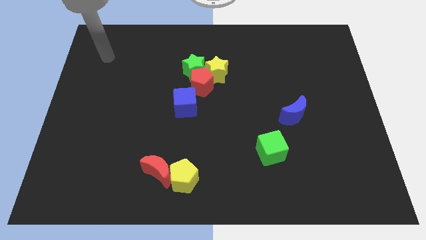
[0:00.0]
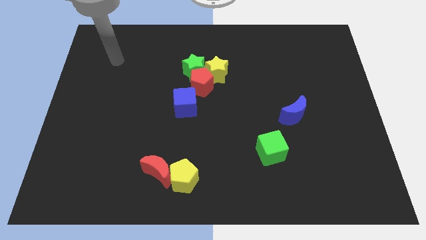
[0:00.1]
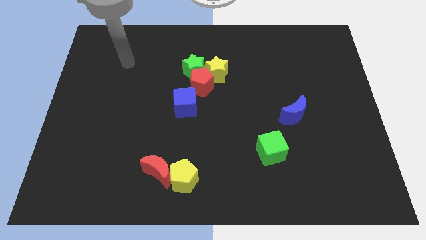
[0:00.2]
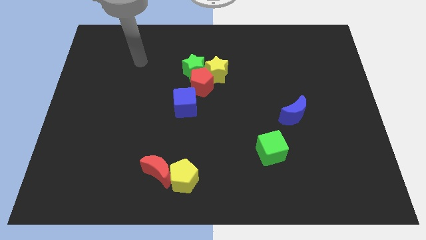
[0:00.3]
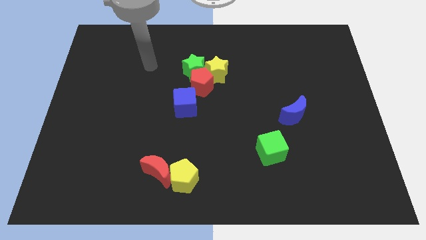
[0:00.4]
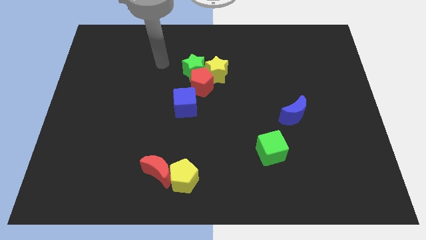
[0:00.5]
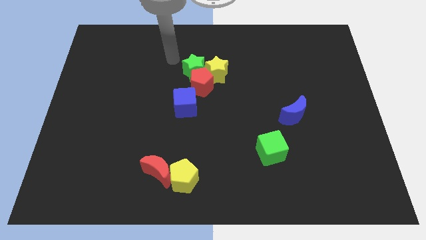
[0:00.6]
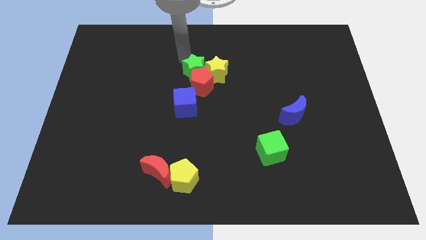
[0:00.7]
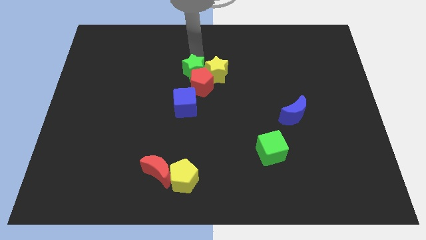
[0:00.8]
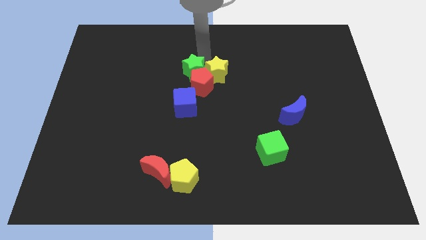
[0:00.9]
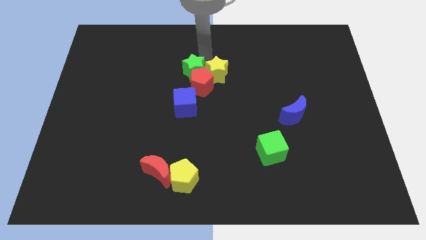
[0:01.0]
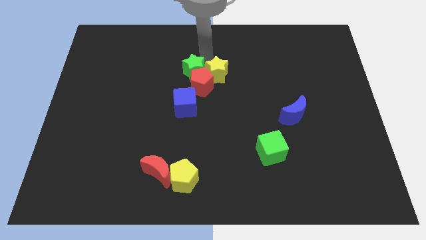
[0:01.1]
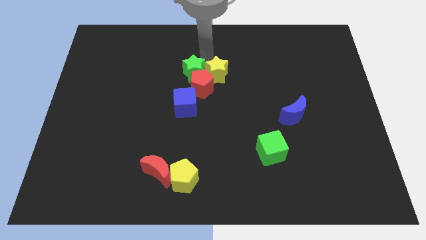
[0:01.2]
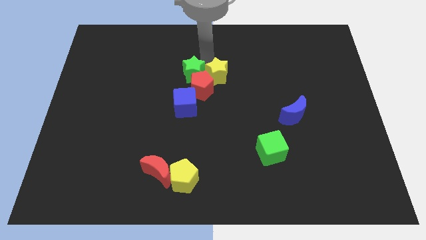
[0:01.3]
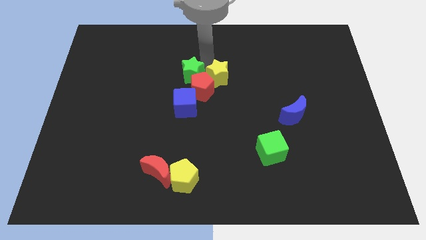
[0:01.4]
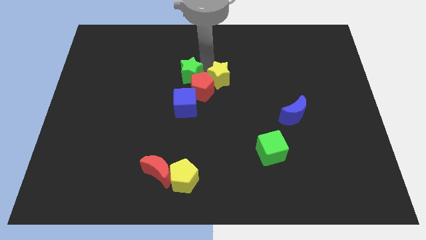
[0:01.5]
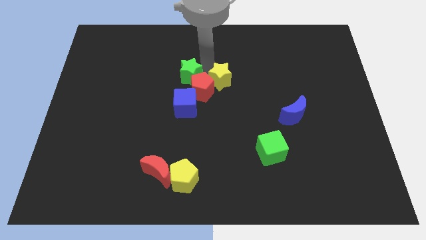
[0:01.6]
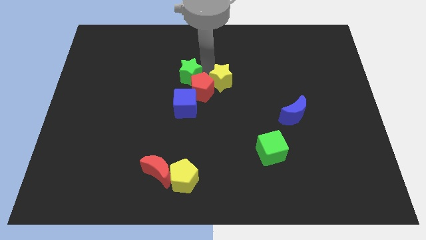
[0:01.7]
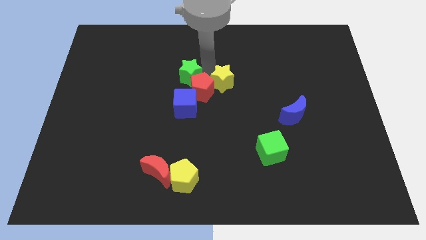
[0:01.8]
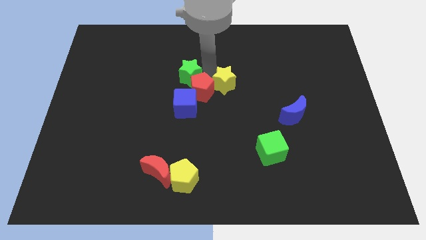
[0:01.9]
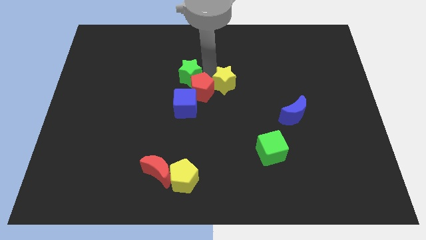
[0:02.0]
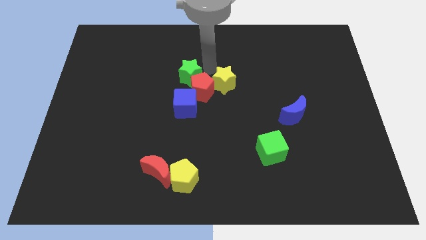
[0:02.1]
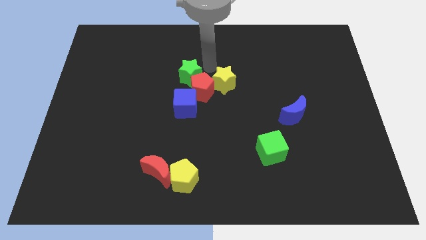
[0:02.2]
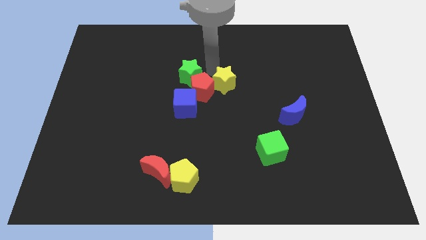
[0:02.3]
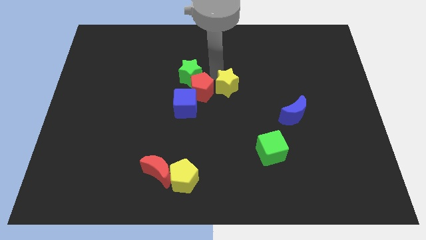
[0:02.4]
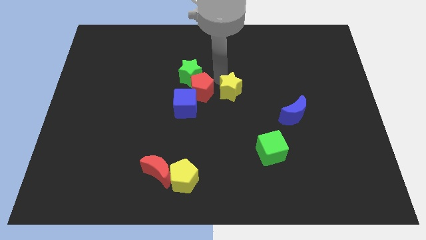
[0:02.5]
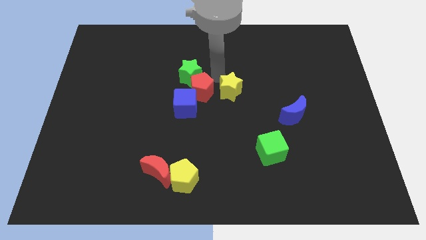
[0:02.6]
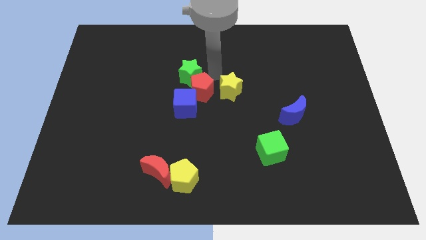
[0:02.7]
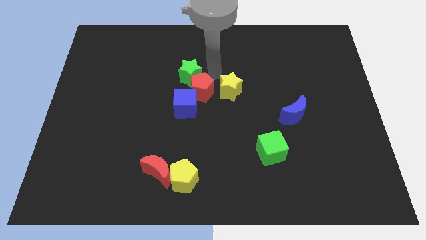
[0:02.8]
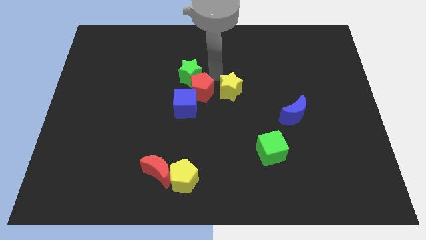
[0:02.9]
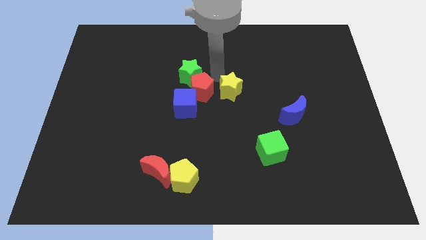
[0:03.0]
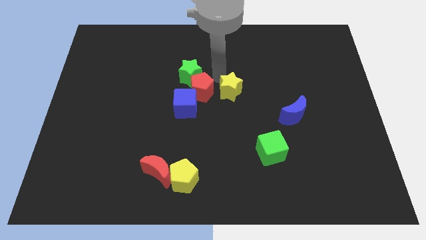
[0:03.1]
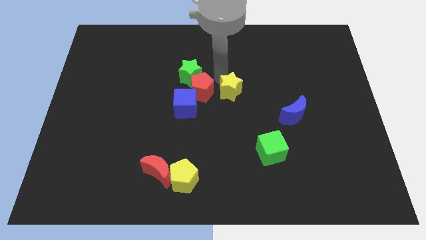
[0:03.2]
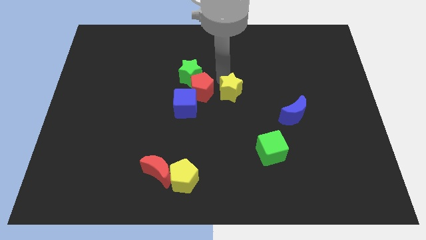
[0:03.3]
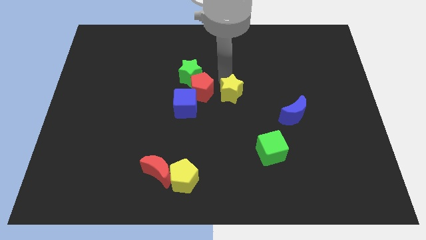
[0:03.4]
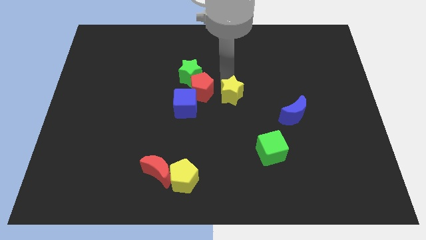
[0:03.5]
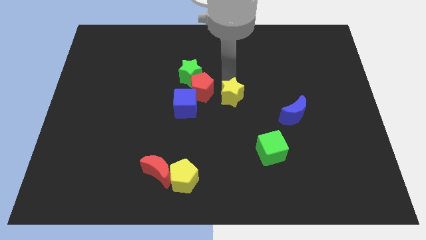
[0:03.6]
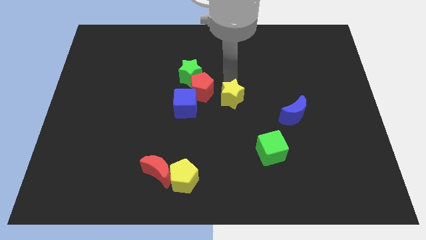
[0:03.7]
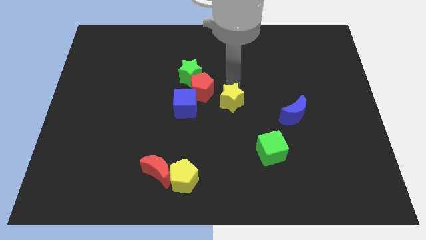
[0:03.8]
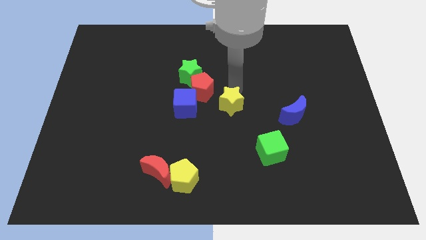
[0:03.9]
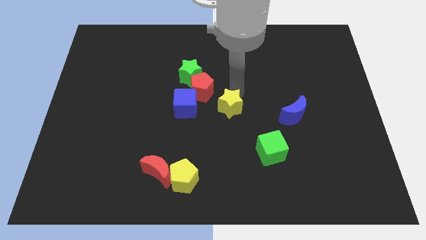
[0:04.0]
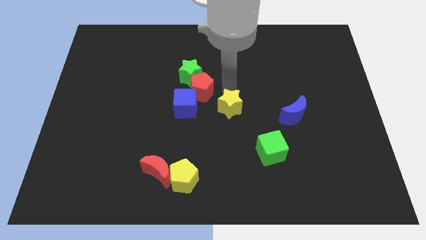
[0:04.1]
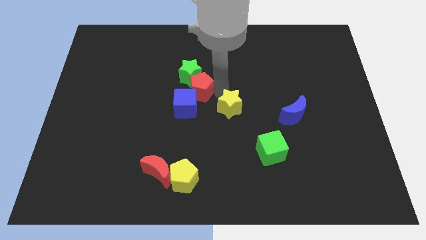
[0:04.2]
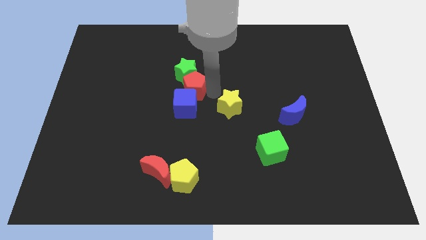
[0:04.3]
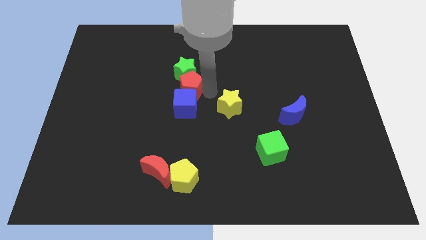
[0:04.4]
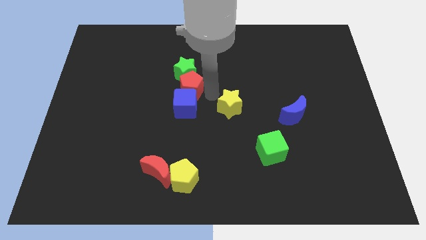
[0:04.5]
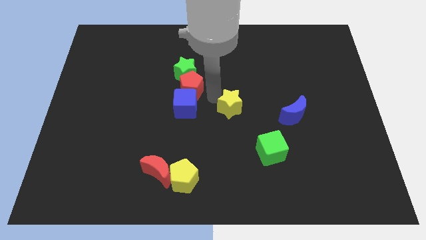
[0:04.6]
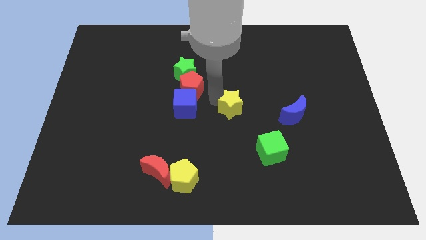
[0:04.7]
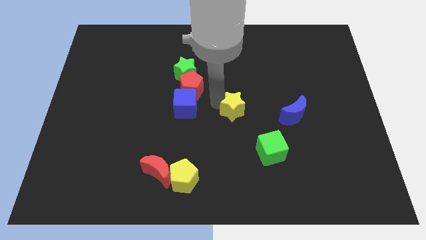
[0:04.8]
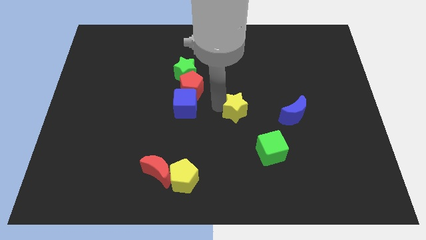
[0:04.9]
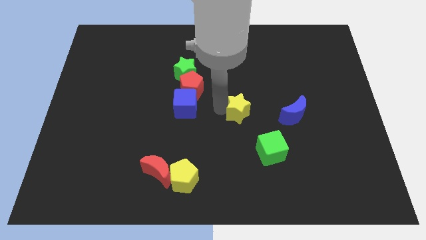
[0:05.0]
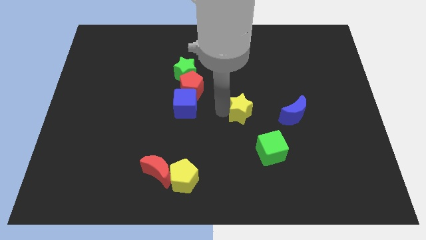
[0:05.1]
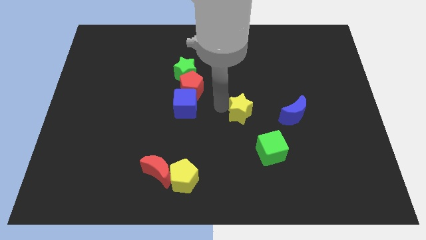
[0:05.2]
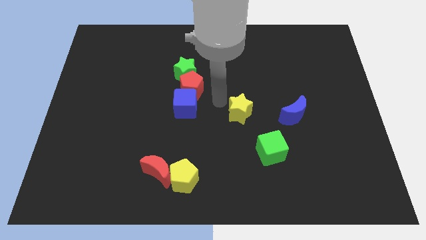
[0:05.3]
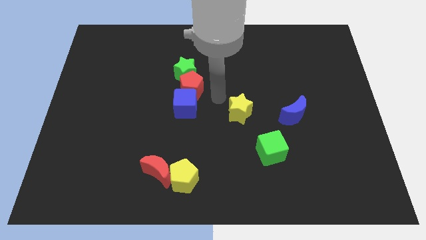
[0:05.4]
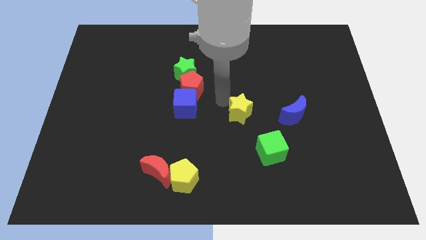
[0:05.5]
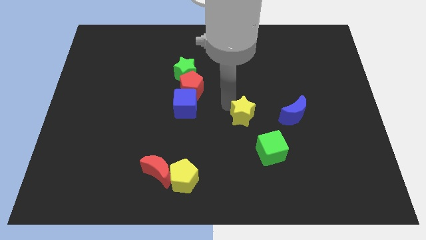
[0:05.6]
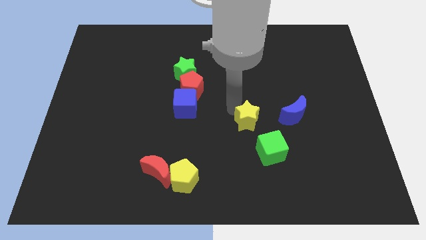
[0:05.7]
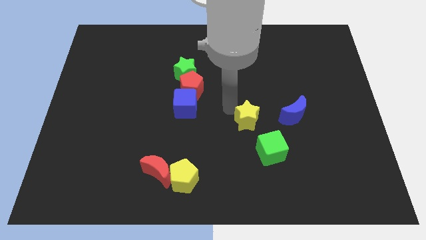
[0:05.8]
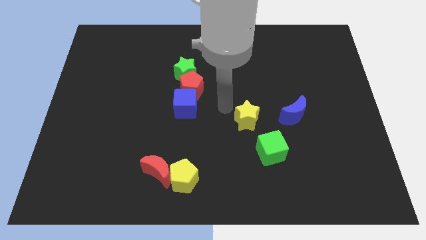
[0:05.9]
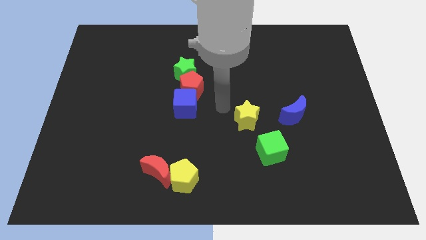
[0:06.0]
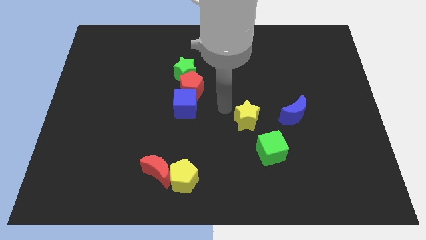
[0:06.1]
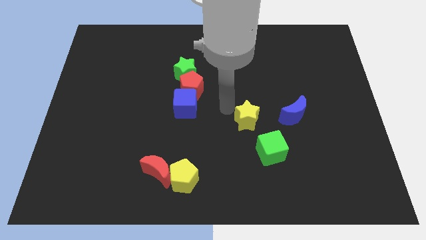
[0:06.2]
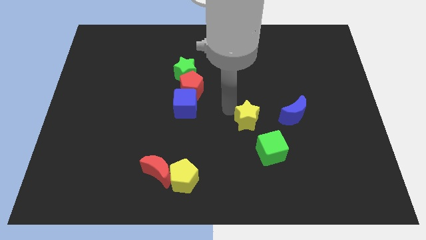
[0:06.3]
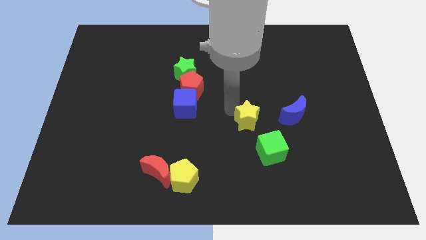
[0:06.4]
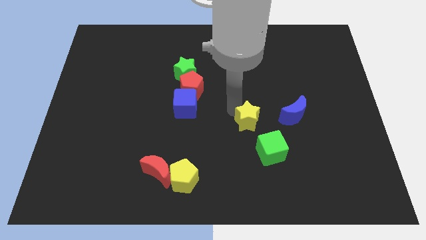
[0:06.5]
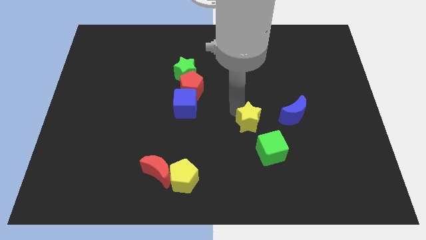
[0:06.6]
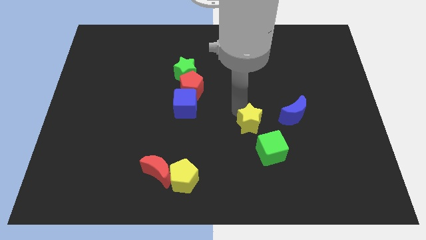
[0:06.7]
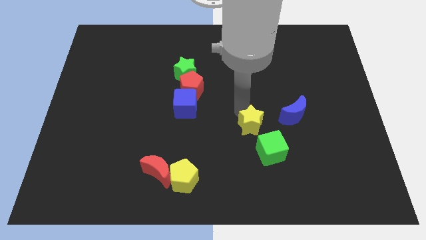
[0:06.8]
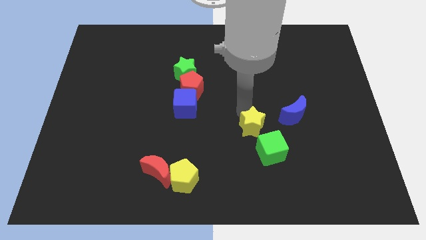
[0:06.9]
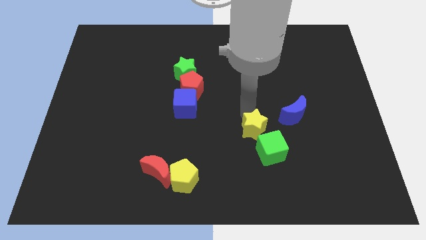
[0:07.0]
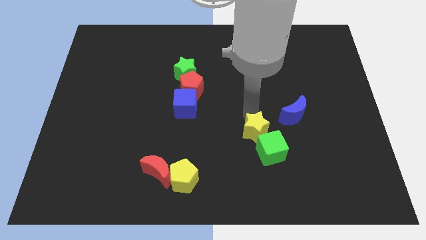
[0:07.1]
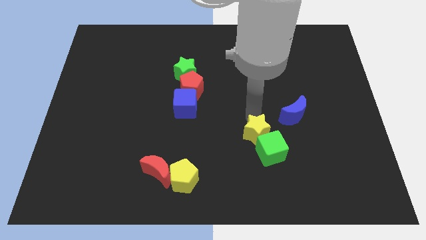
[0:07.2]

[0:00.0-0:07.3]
push the yellow star next to the green cube

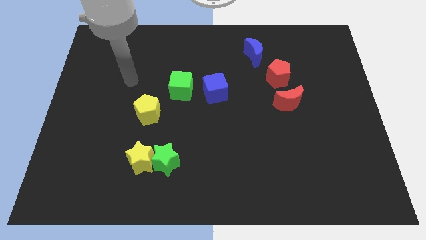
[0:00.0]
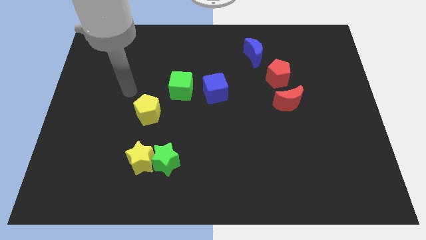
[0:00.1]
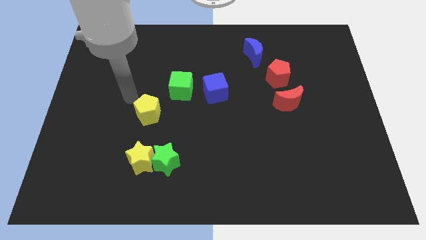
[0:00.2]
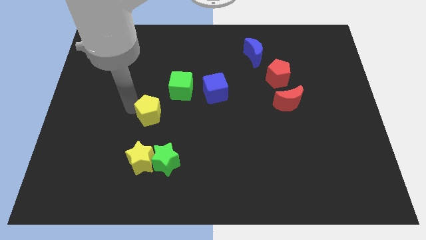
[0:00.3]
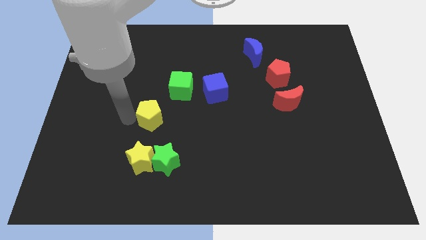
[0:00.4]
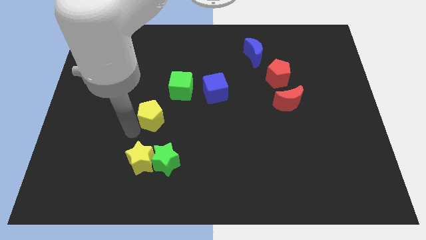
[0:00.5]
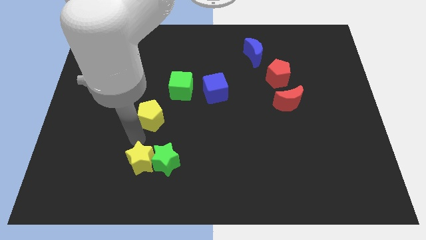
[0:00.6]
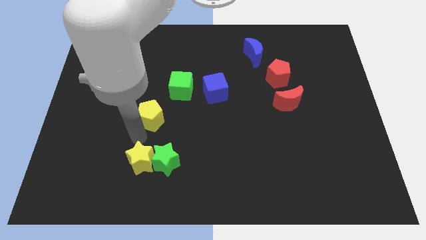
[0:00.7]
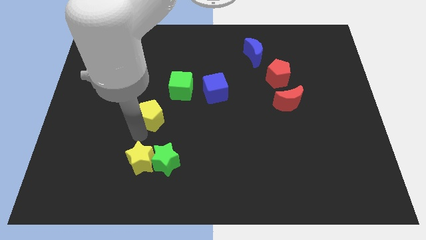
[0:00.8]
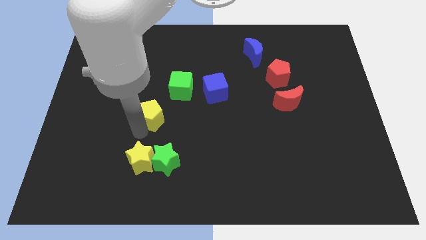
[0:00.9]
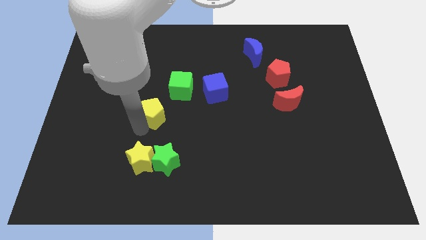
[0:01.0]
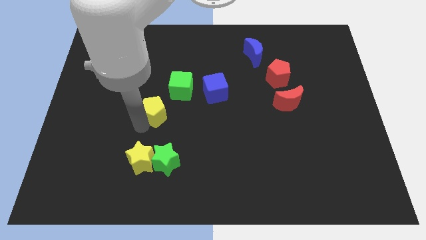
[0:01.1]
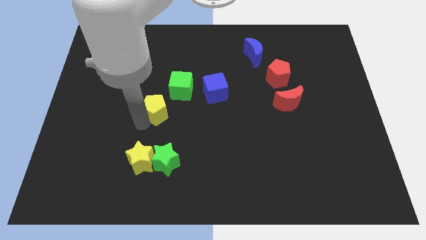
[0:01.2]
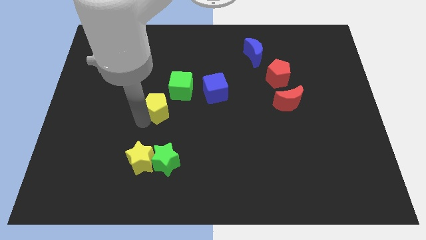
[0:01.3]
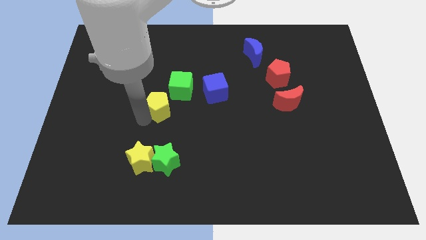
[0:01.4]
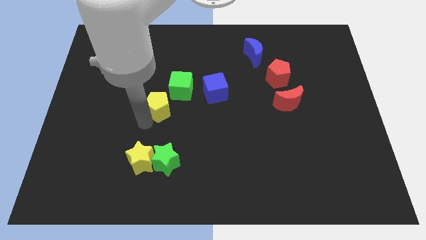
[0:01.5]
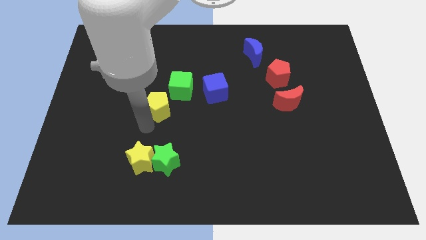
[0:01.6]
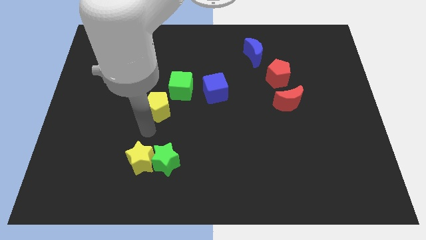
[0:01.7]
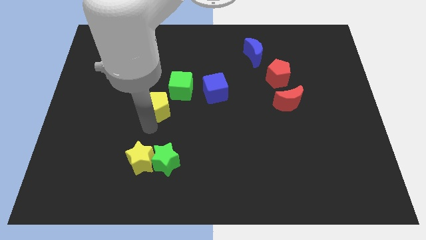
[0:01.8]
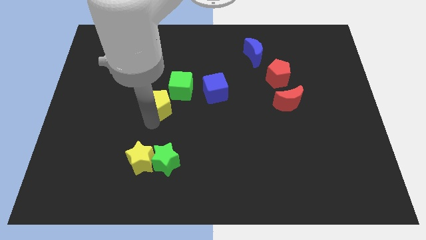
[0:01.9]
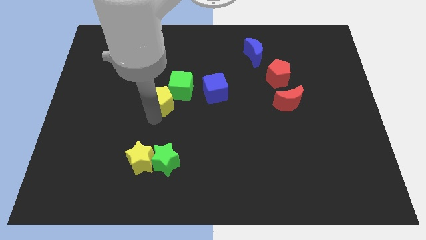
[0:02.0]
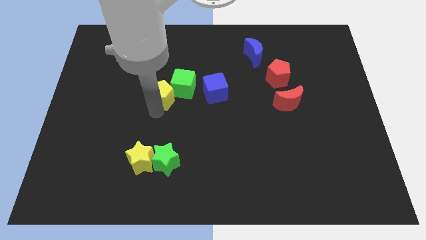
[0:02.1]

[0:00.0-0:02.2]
move the yellow pentagon close to the green cube
